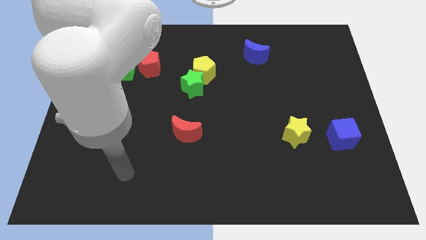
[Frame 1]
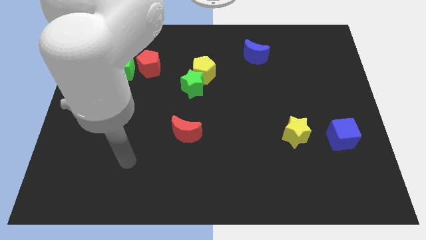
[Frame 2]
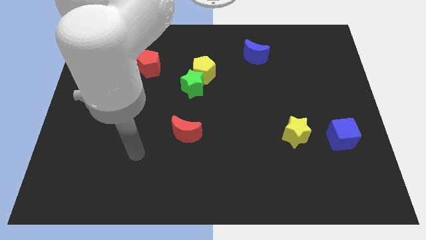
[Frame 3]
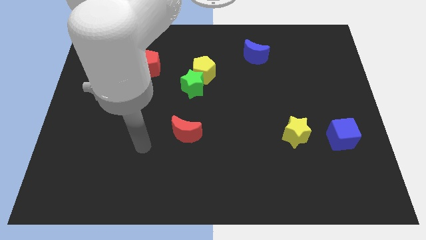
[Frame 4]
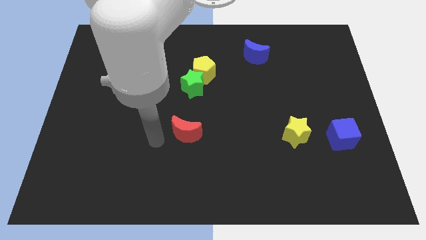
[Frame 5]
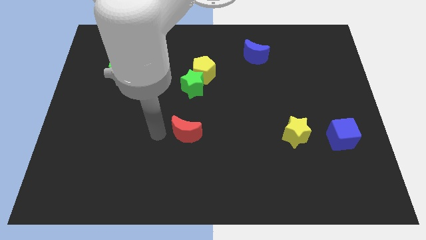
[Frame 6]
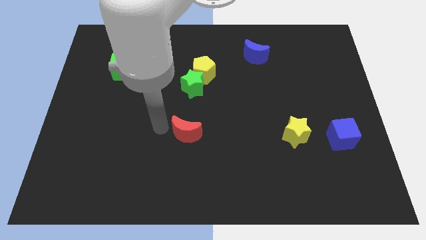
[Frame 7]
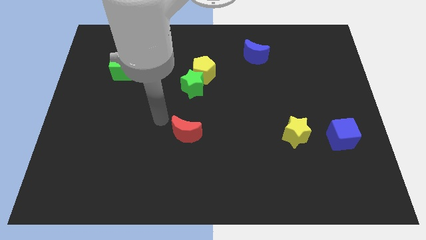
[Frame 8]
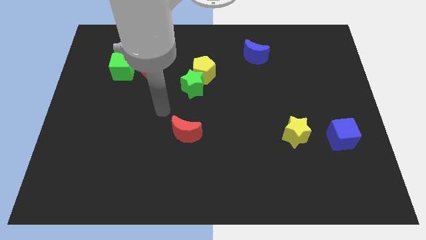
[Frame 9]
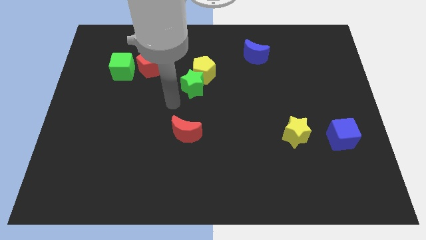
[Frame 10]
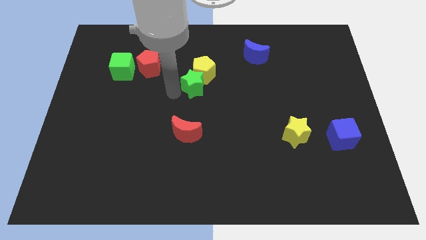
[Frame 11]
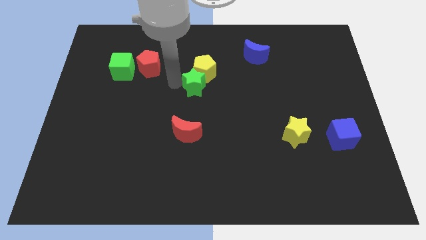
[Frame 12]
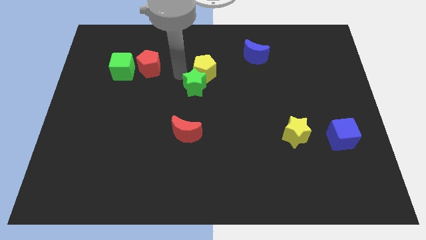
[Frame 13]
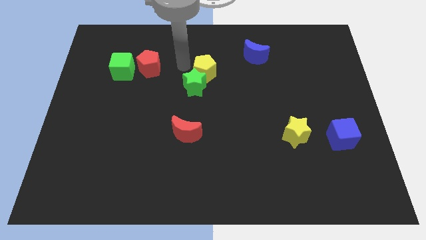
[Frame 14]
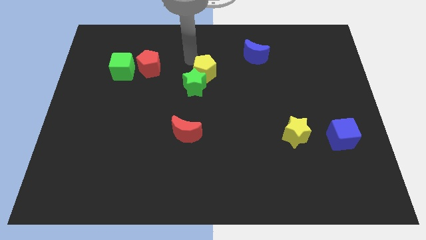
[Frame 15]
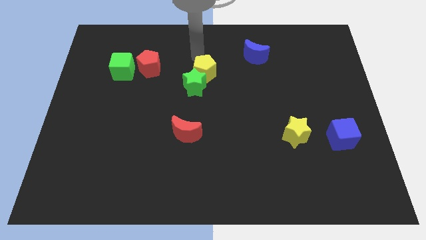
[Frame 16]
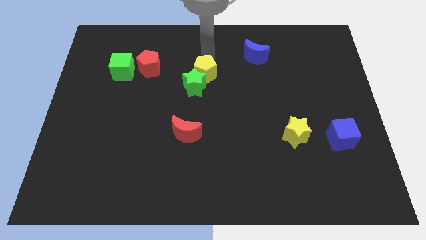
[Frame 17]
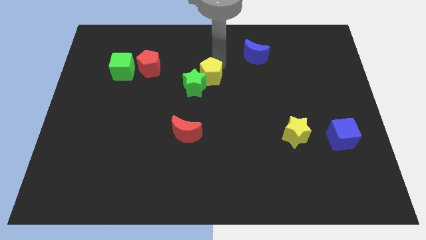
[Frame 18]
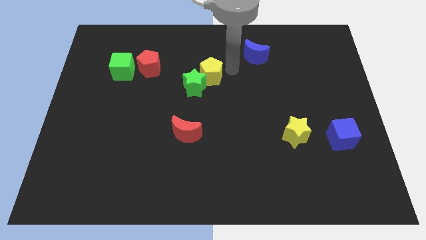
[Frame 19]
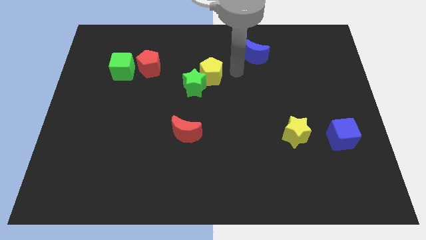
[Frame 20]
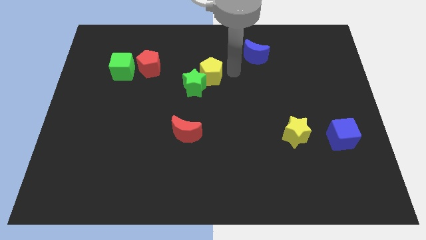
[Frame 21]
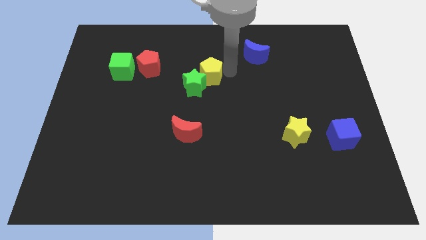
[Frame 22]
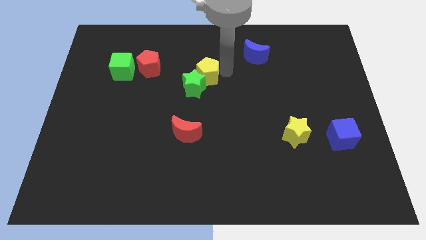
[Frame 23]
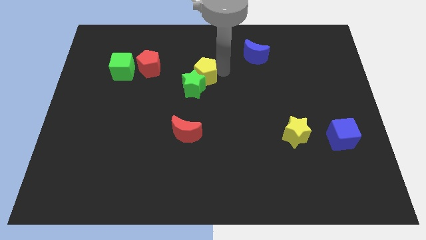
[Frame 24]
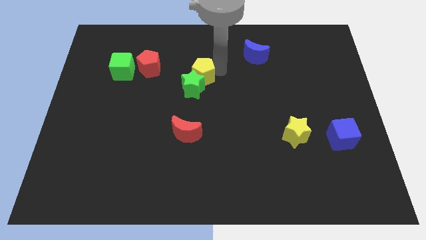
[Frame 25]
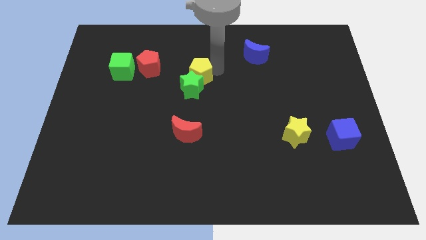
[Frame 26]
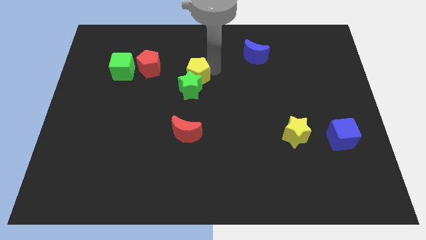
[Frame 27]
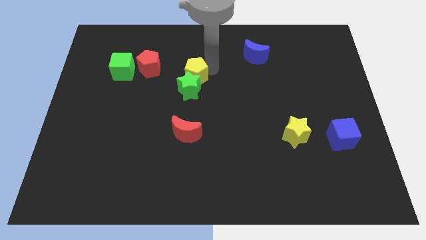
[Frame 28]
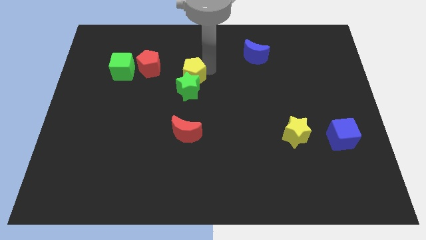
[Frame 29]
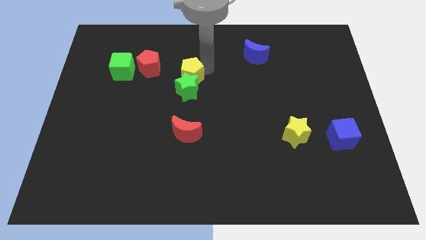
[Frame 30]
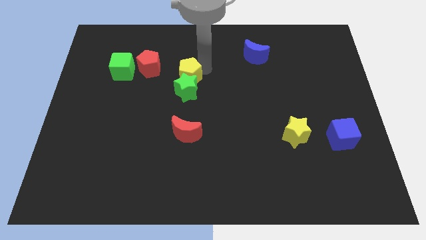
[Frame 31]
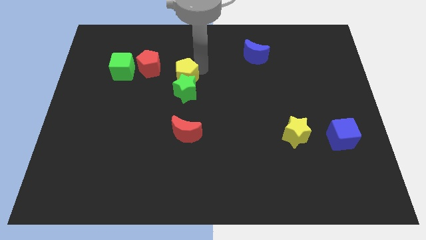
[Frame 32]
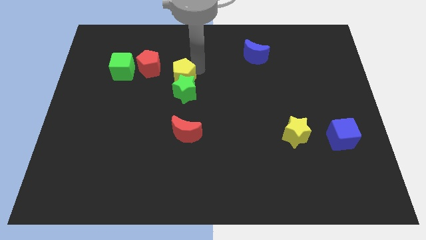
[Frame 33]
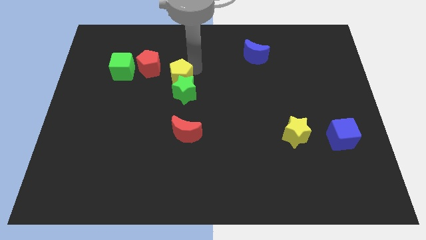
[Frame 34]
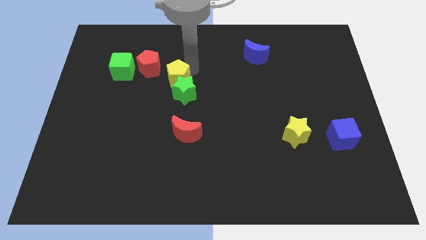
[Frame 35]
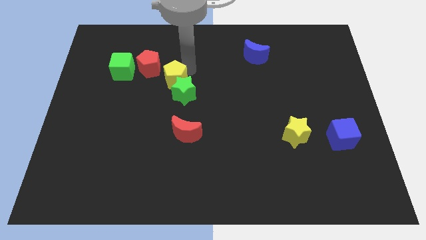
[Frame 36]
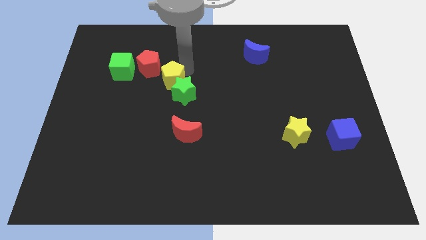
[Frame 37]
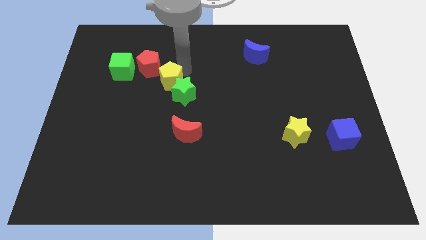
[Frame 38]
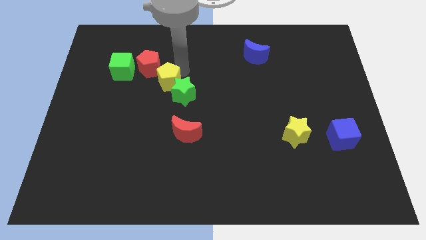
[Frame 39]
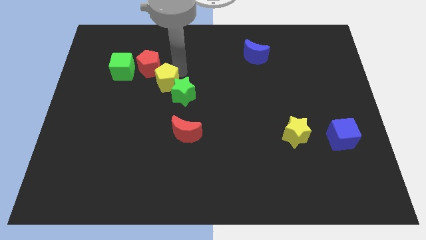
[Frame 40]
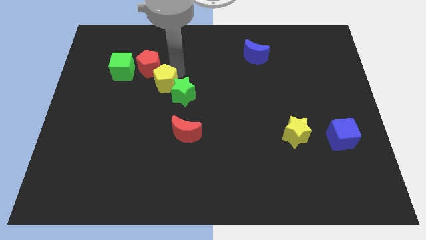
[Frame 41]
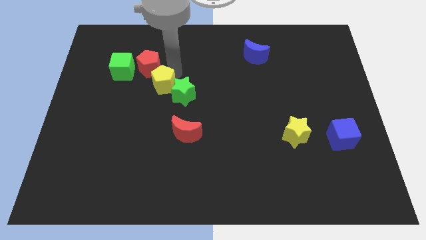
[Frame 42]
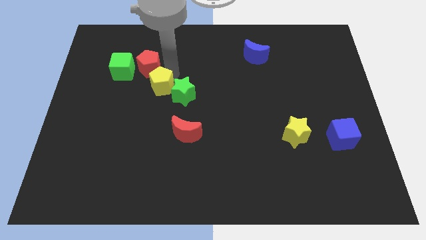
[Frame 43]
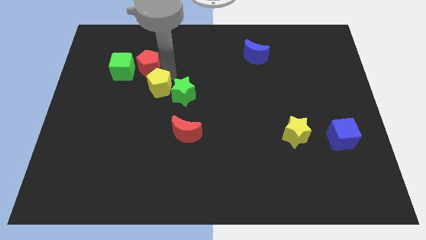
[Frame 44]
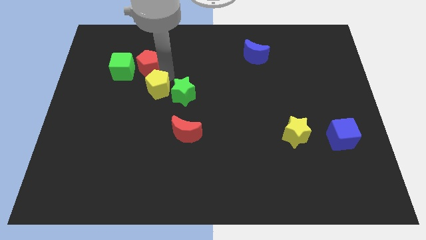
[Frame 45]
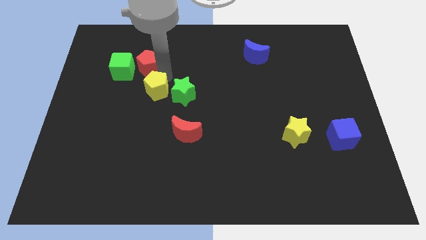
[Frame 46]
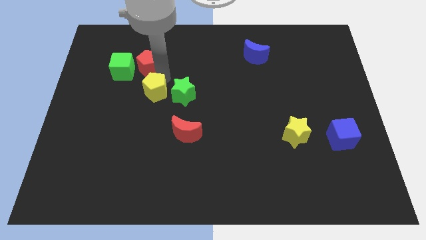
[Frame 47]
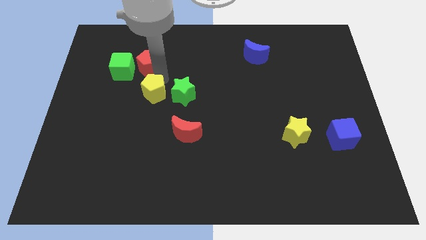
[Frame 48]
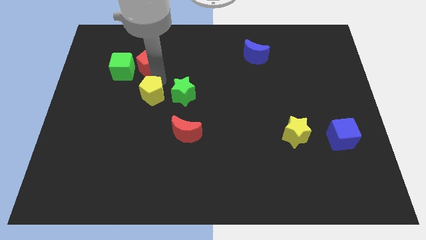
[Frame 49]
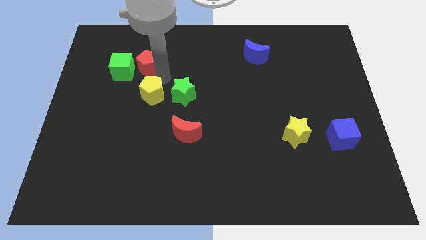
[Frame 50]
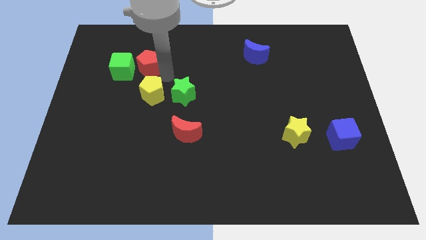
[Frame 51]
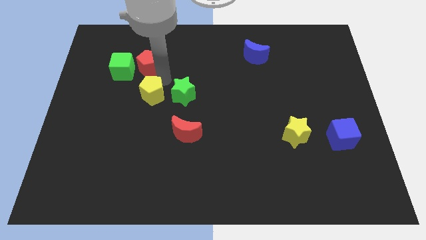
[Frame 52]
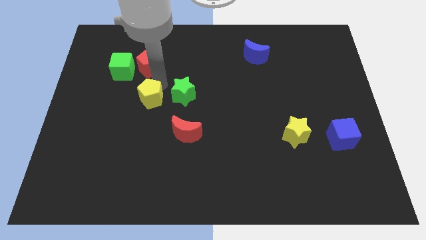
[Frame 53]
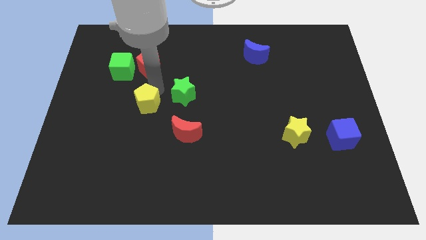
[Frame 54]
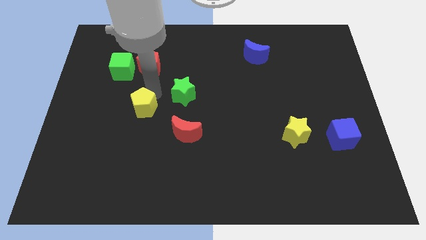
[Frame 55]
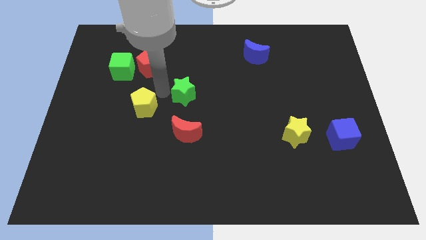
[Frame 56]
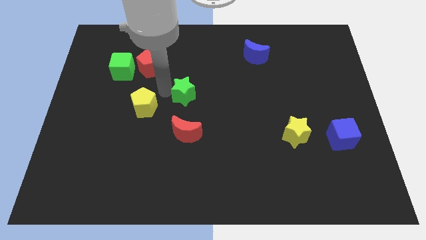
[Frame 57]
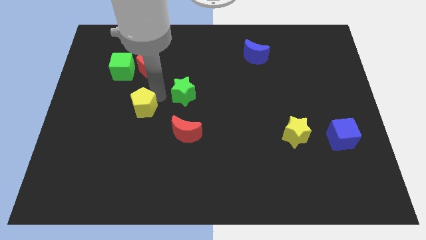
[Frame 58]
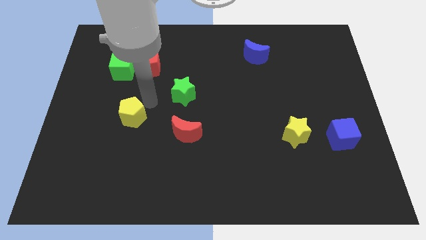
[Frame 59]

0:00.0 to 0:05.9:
move the yellow pentagon down and to the left

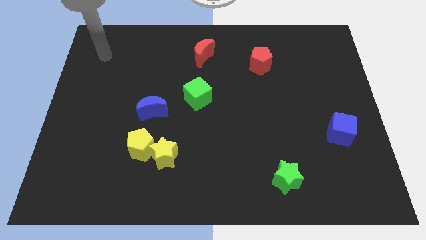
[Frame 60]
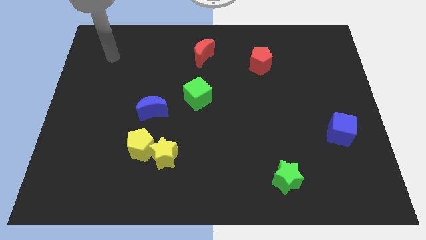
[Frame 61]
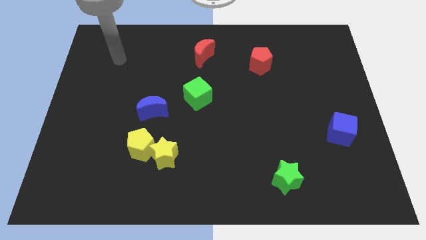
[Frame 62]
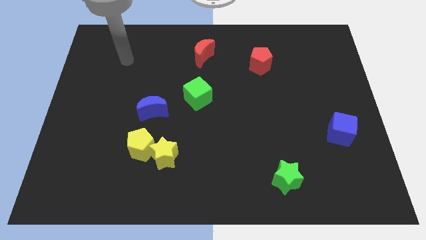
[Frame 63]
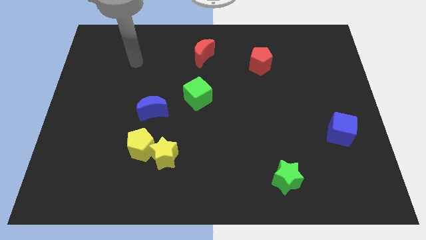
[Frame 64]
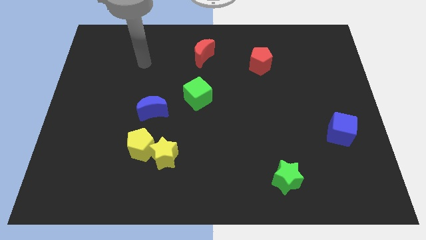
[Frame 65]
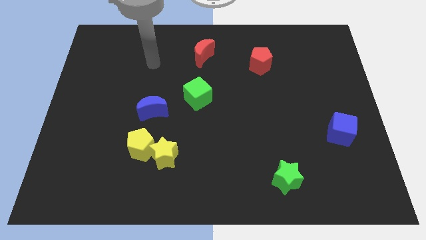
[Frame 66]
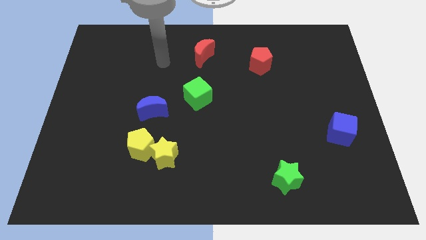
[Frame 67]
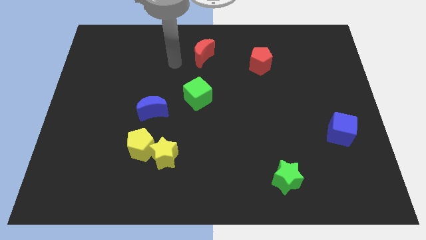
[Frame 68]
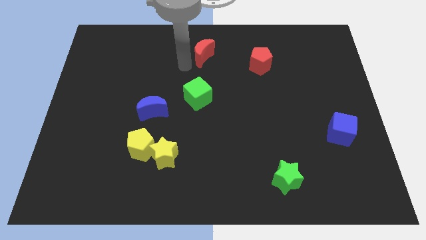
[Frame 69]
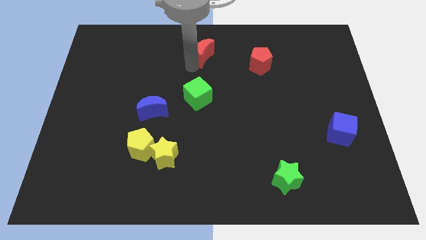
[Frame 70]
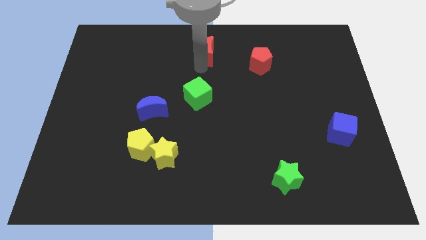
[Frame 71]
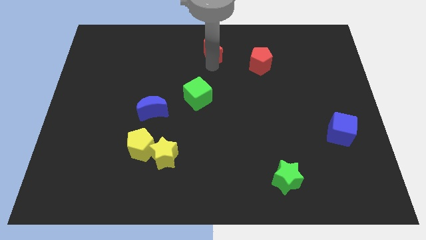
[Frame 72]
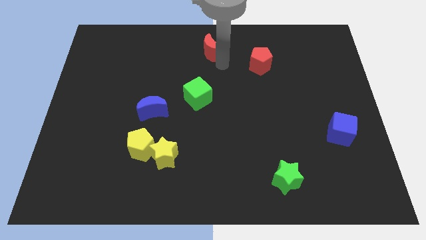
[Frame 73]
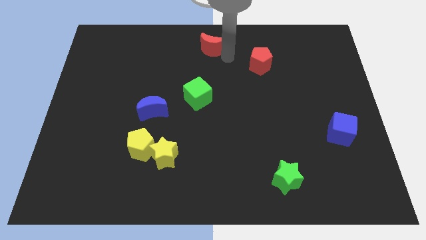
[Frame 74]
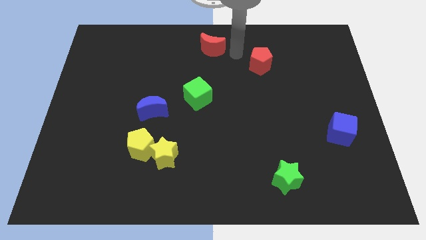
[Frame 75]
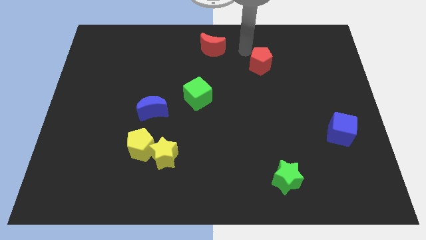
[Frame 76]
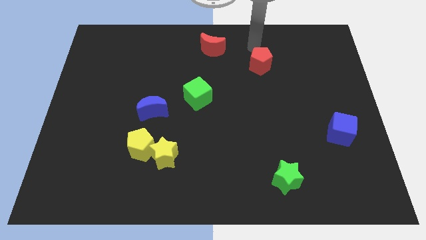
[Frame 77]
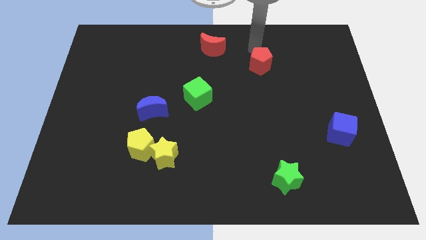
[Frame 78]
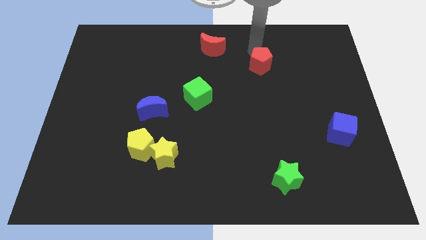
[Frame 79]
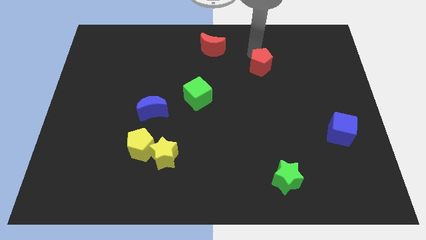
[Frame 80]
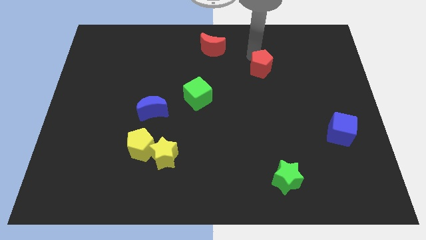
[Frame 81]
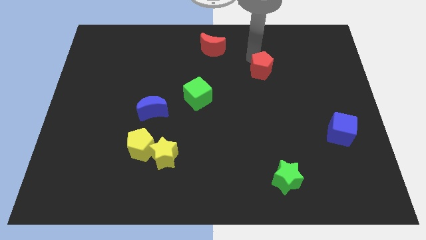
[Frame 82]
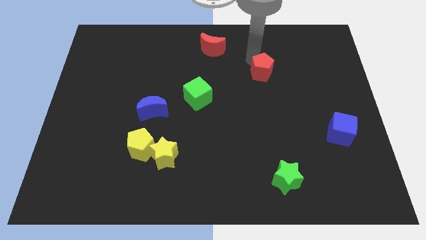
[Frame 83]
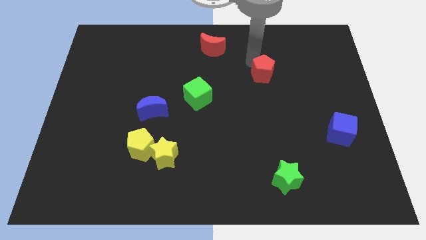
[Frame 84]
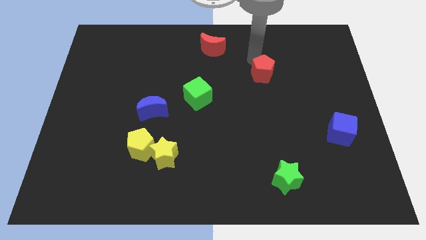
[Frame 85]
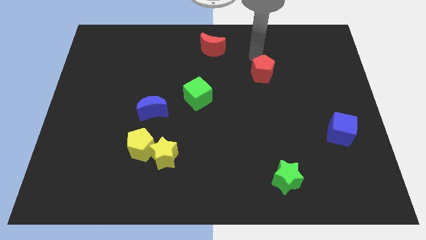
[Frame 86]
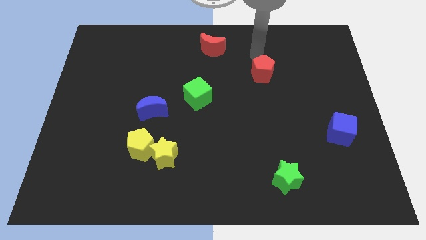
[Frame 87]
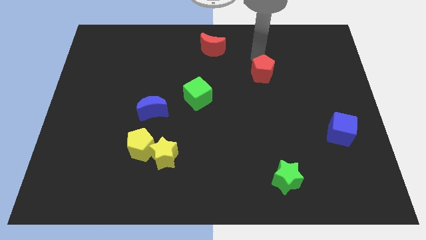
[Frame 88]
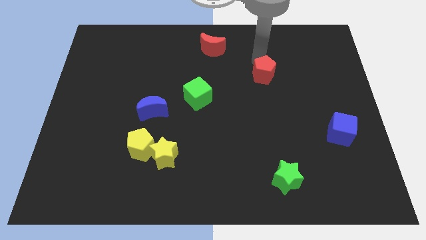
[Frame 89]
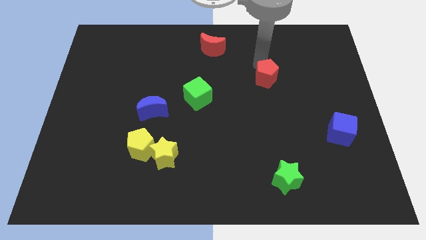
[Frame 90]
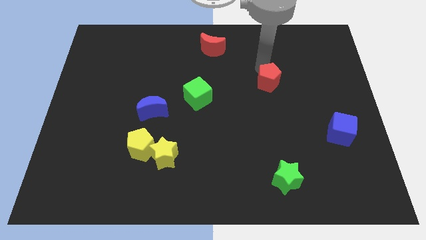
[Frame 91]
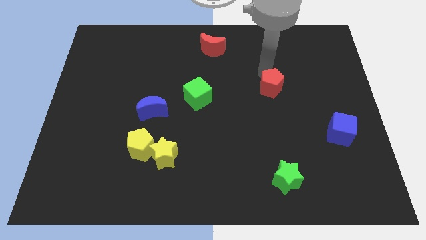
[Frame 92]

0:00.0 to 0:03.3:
slide the red pentagon down slightly
